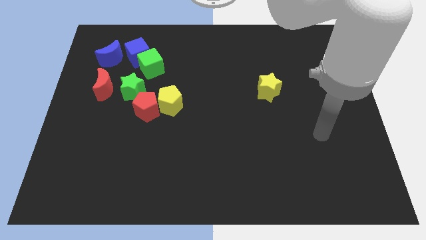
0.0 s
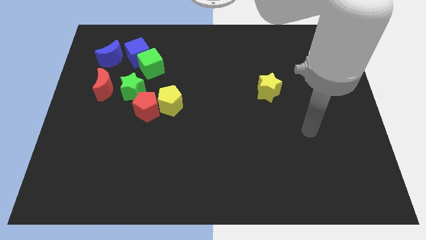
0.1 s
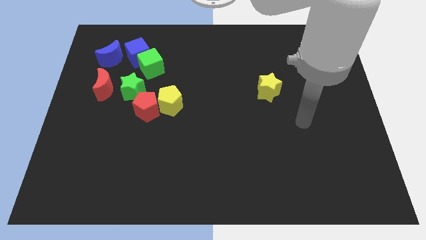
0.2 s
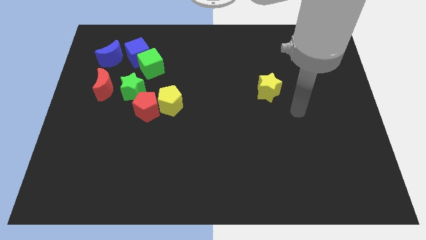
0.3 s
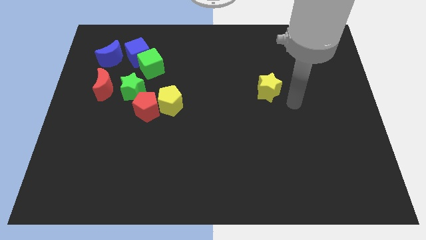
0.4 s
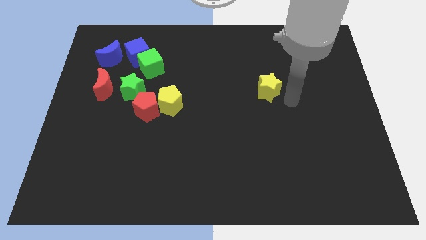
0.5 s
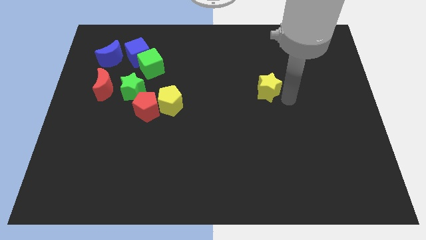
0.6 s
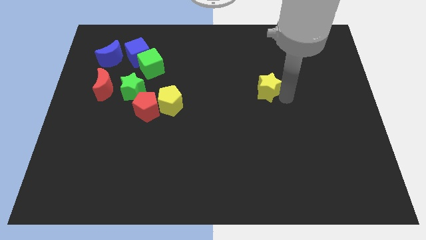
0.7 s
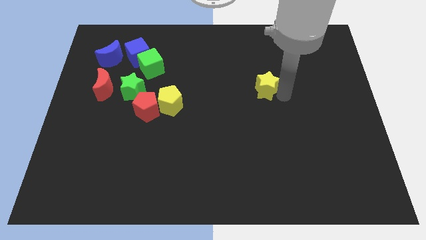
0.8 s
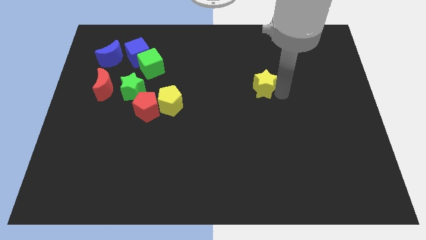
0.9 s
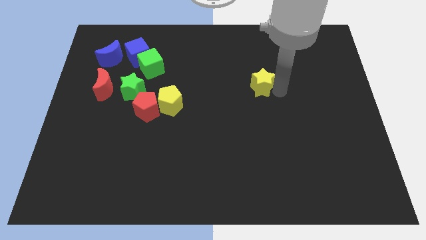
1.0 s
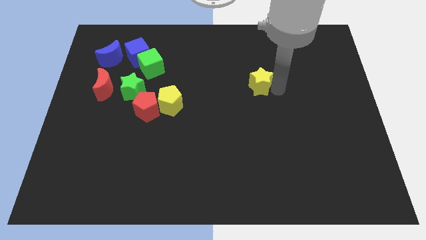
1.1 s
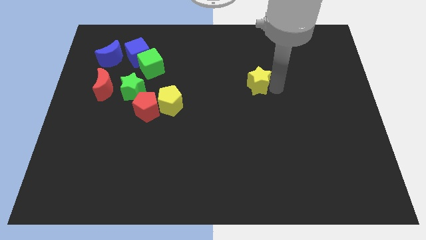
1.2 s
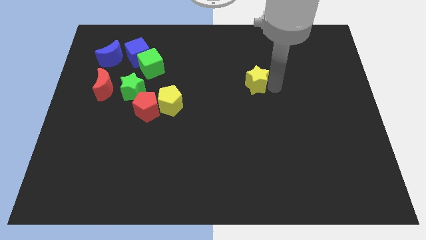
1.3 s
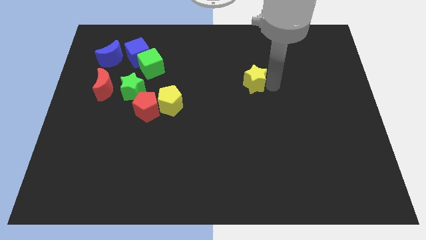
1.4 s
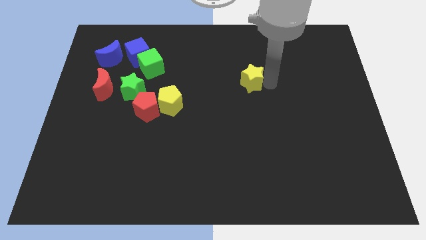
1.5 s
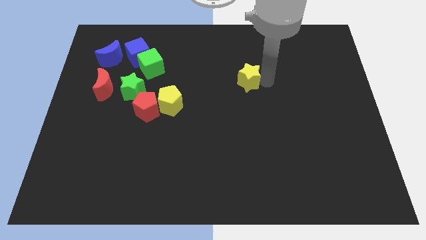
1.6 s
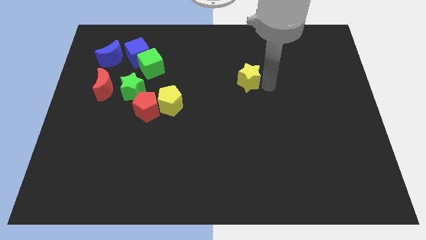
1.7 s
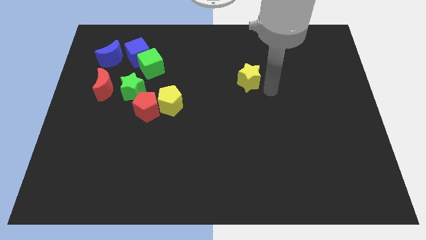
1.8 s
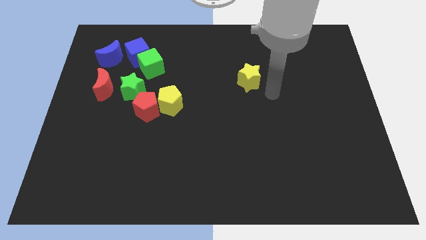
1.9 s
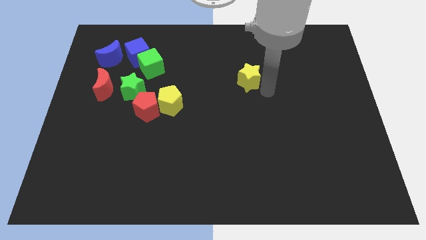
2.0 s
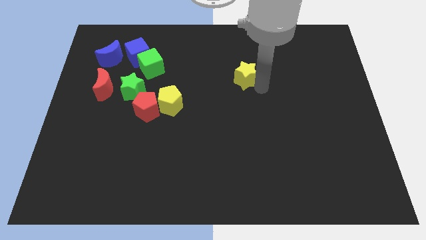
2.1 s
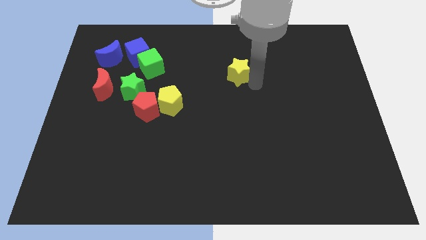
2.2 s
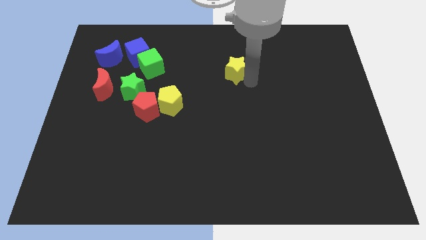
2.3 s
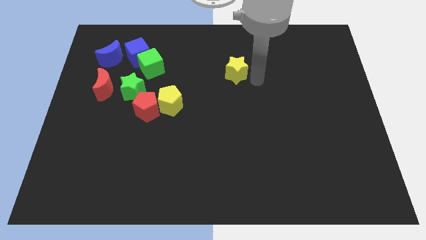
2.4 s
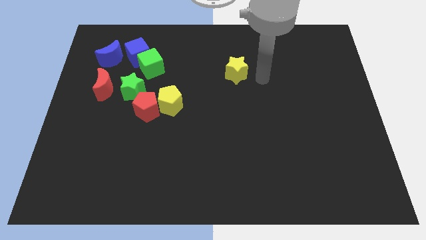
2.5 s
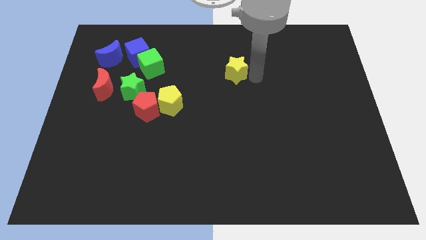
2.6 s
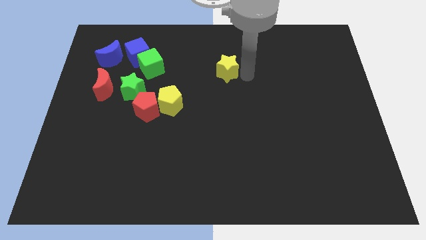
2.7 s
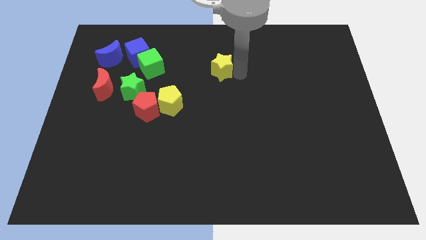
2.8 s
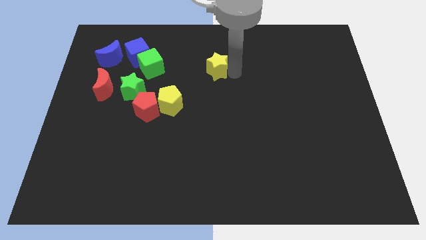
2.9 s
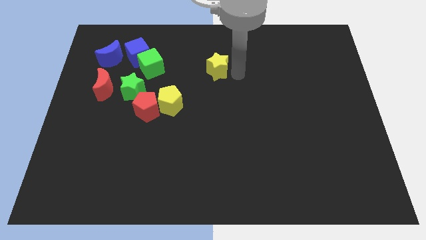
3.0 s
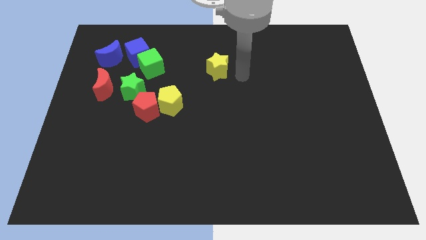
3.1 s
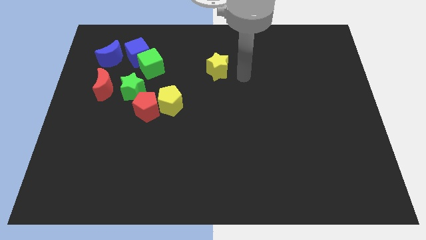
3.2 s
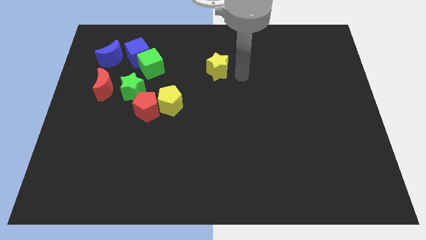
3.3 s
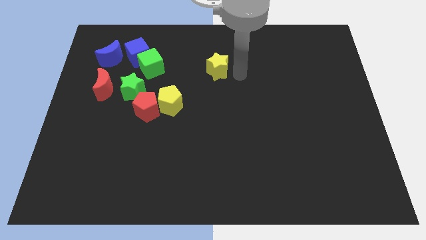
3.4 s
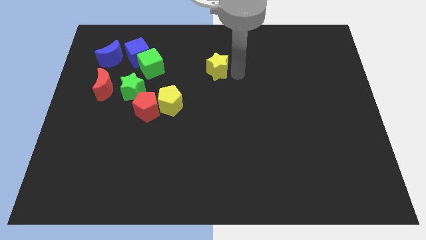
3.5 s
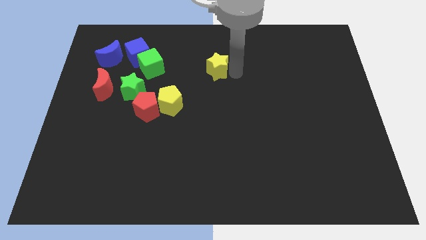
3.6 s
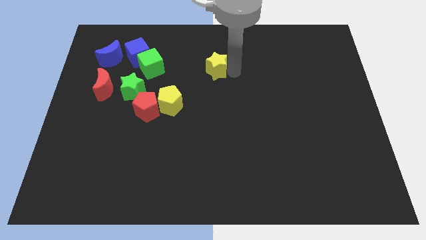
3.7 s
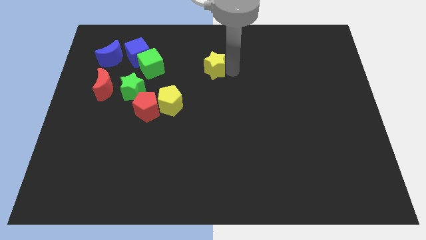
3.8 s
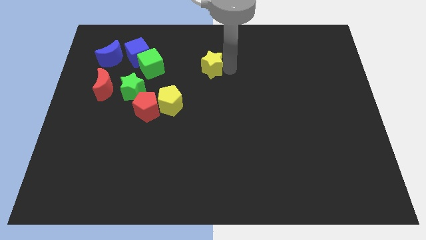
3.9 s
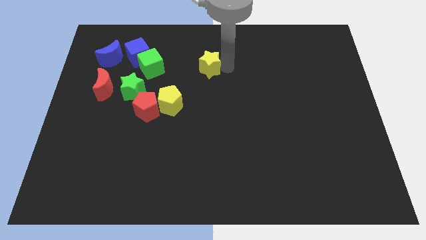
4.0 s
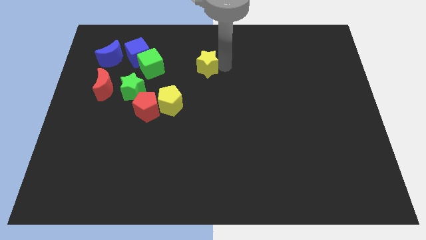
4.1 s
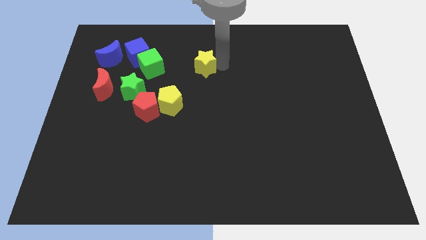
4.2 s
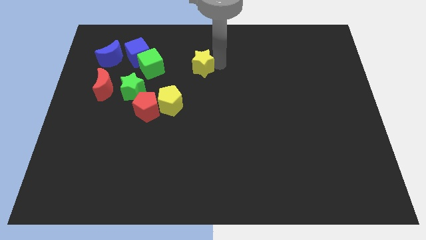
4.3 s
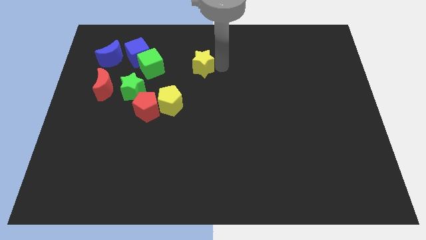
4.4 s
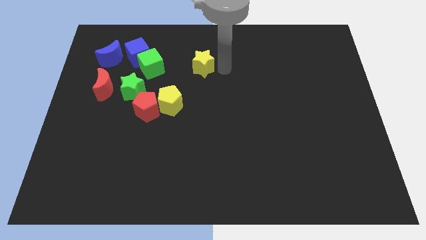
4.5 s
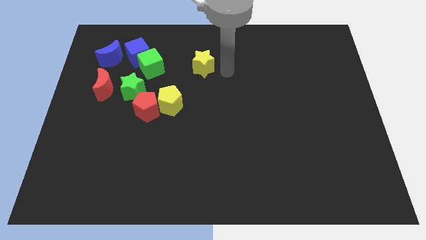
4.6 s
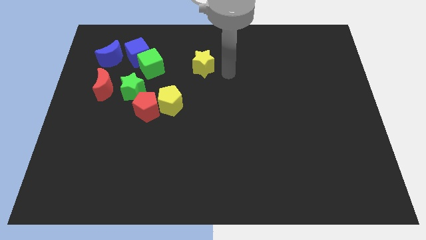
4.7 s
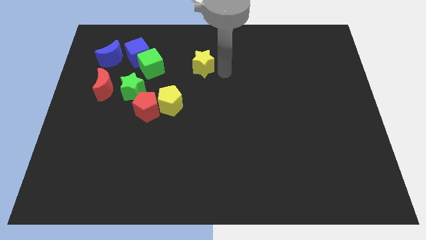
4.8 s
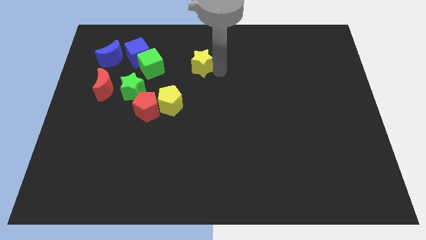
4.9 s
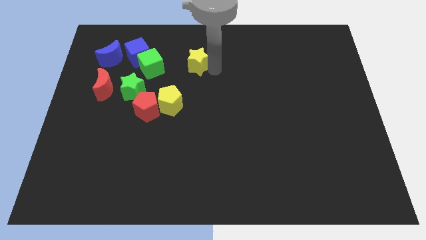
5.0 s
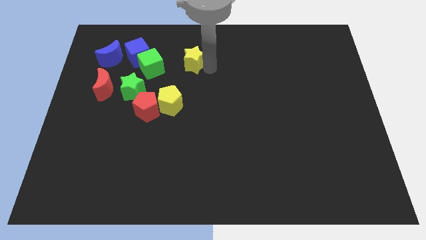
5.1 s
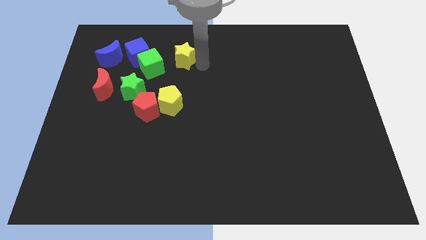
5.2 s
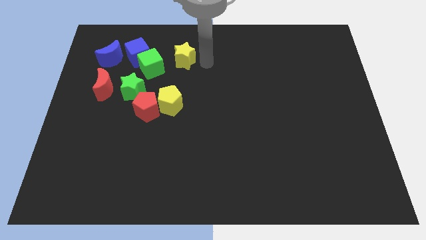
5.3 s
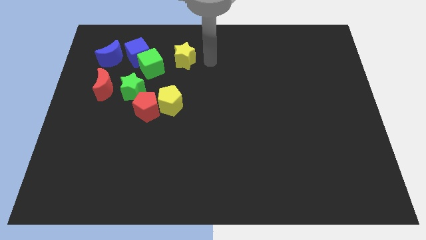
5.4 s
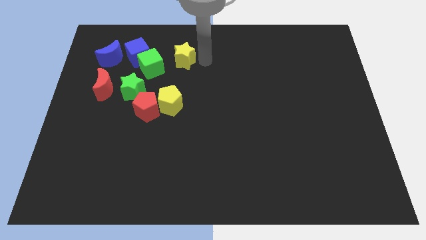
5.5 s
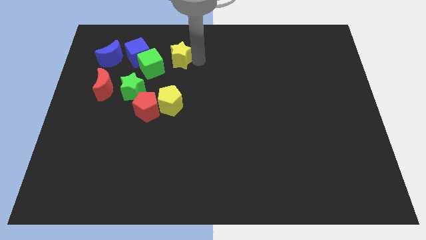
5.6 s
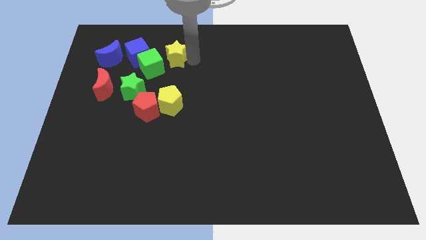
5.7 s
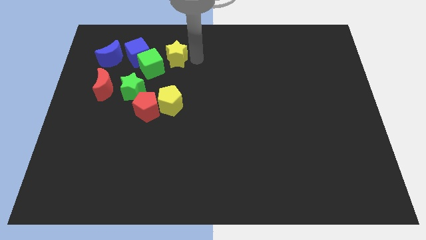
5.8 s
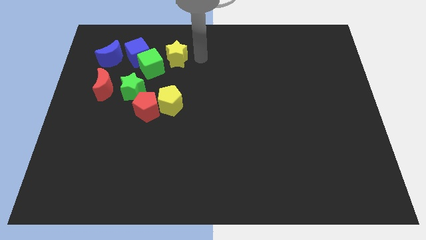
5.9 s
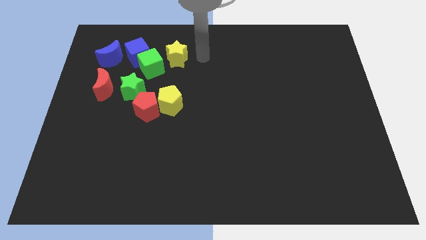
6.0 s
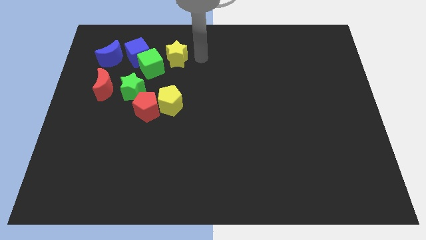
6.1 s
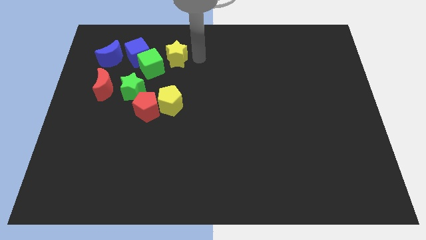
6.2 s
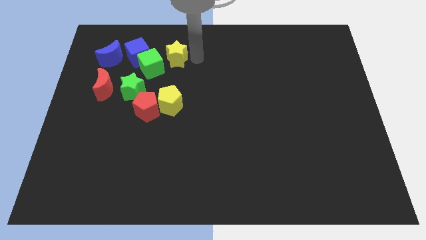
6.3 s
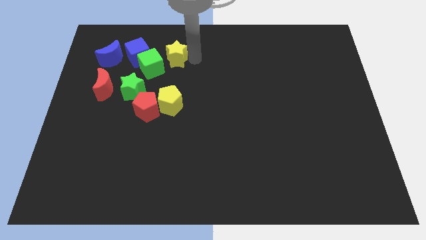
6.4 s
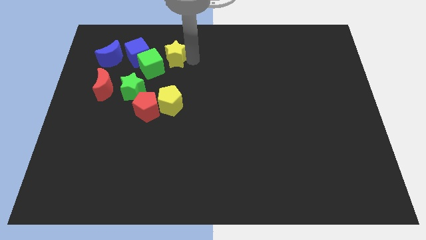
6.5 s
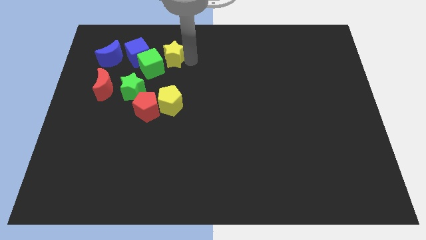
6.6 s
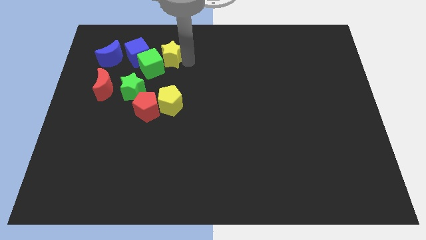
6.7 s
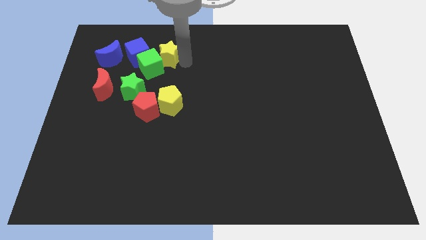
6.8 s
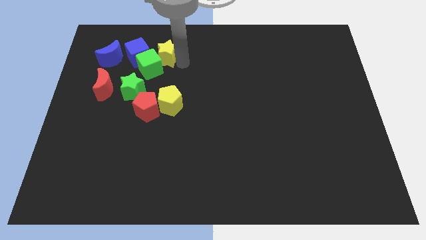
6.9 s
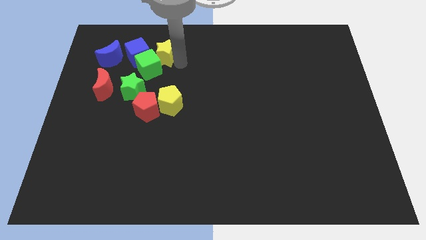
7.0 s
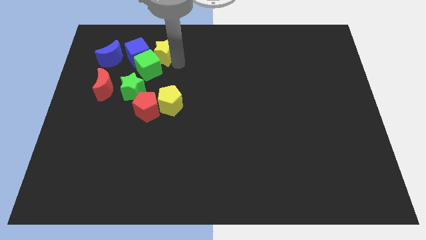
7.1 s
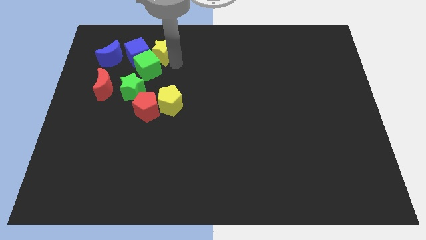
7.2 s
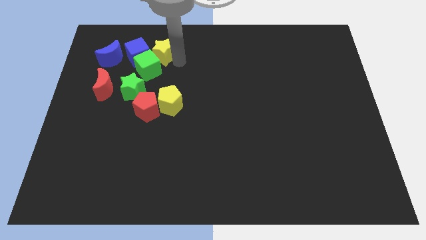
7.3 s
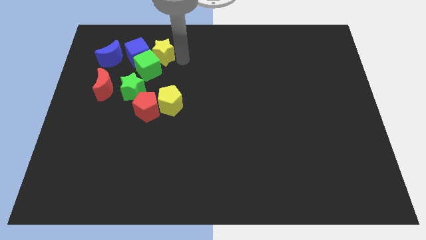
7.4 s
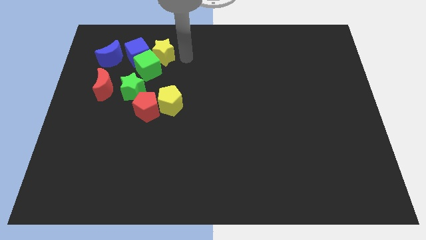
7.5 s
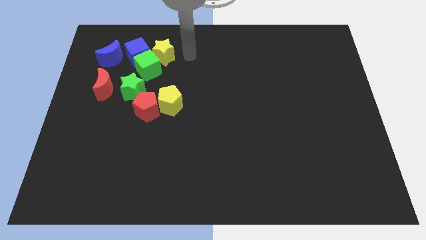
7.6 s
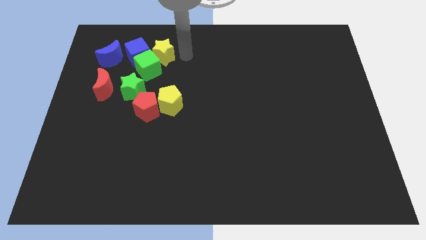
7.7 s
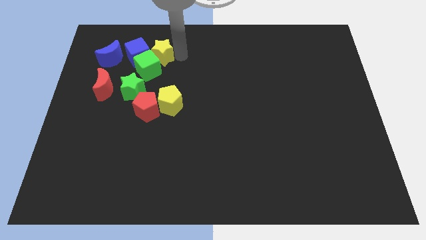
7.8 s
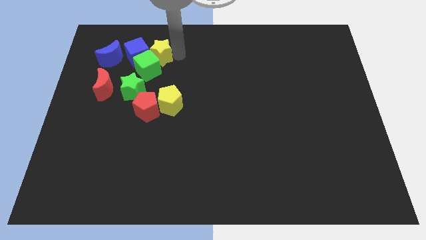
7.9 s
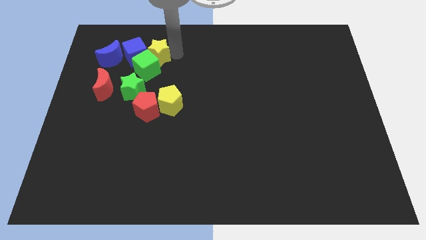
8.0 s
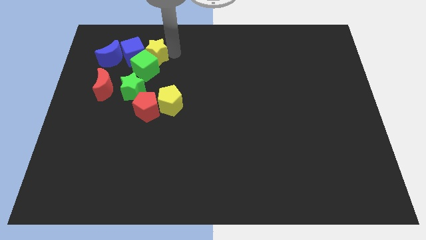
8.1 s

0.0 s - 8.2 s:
push the yellow star next to the blue cube
